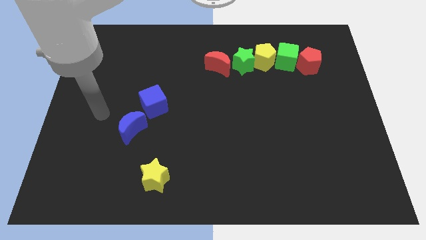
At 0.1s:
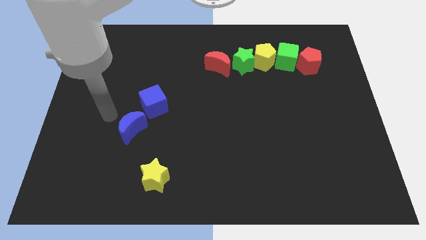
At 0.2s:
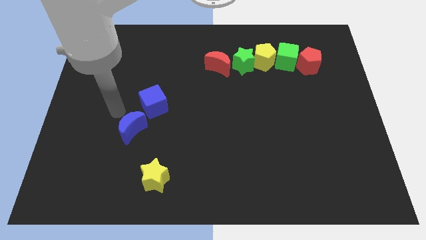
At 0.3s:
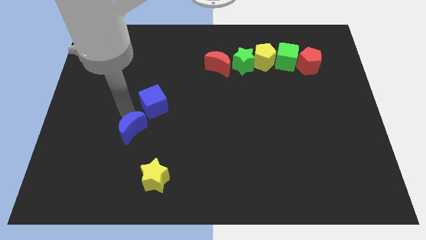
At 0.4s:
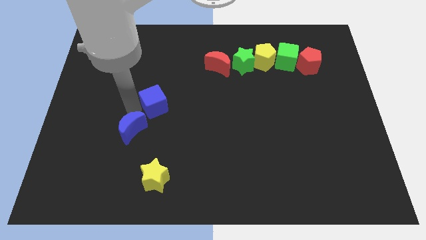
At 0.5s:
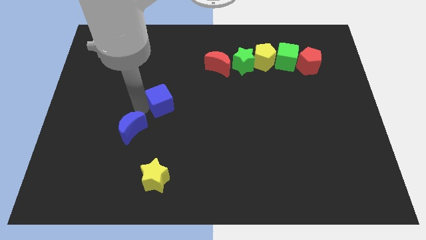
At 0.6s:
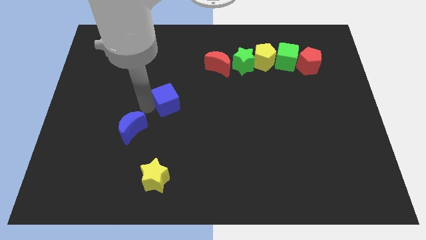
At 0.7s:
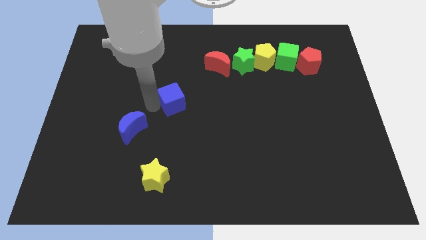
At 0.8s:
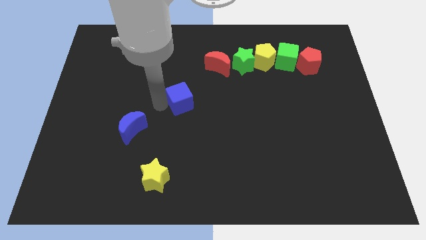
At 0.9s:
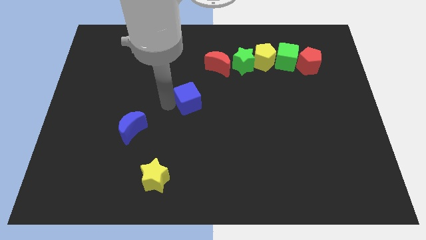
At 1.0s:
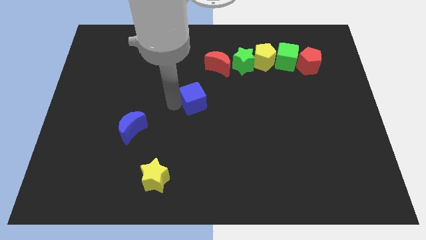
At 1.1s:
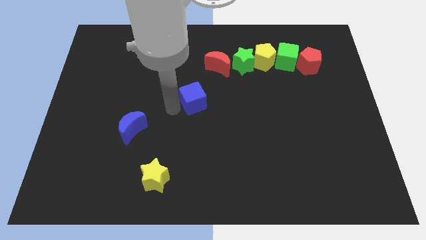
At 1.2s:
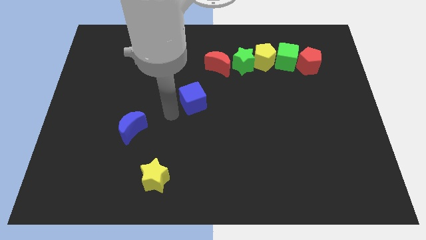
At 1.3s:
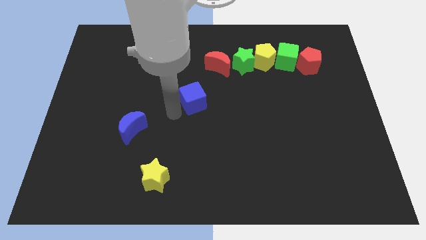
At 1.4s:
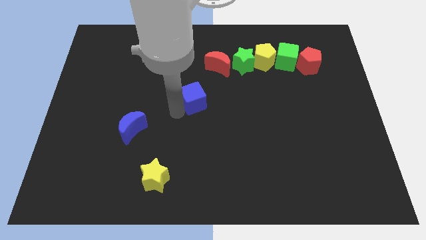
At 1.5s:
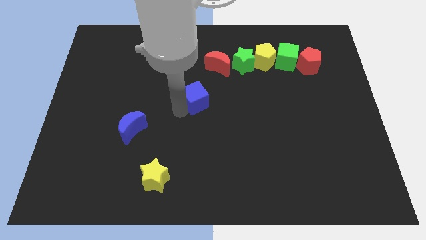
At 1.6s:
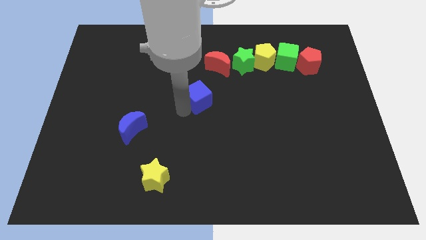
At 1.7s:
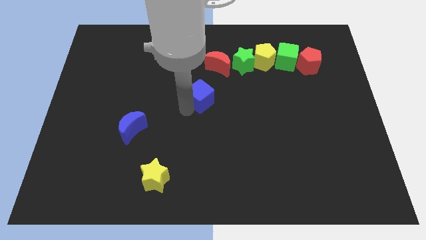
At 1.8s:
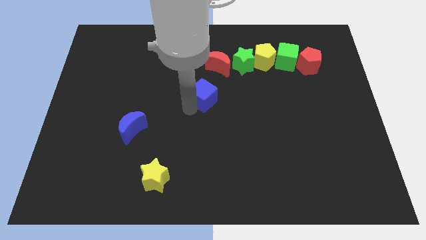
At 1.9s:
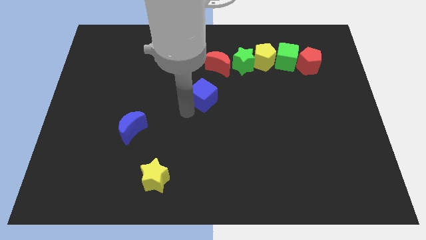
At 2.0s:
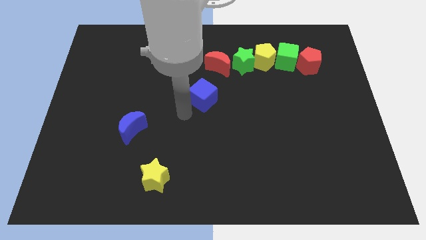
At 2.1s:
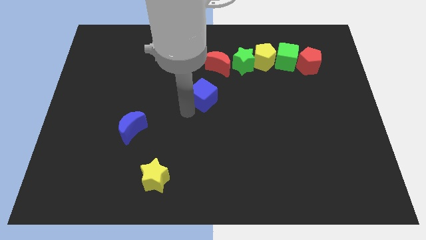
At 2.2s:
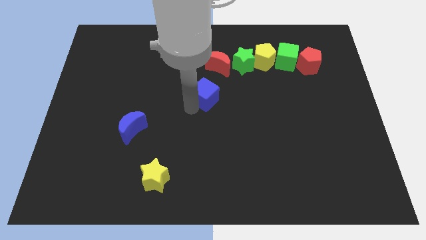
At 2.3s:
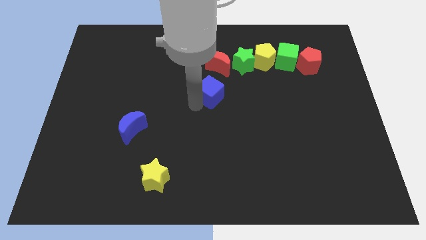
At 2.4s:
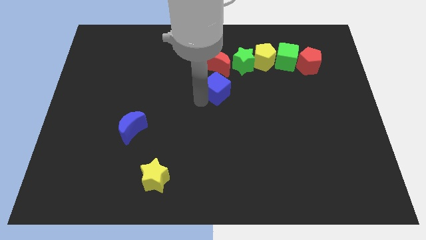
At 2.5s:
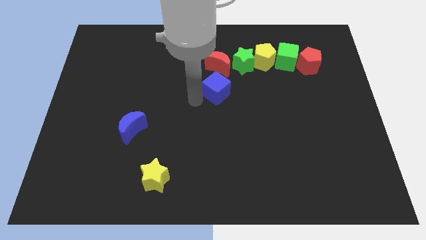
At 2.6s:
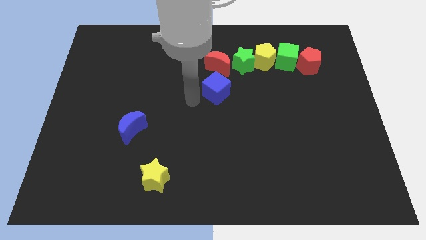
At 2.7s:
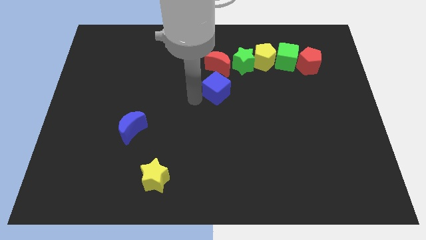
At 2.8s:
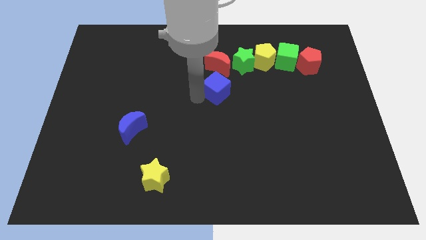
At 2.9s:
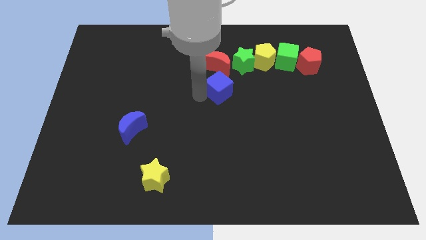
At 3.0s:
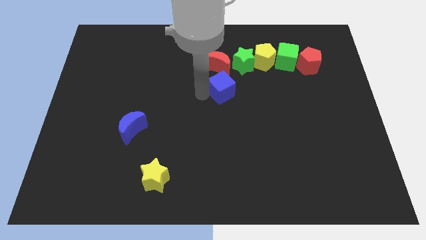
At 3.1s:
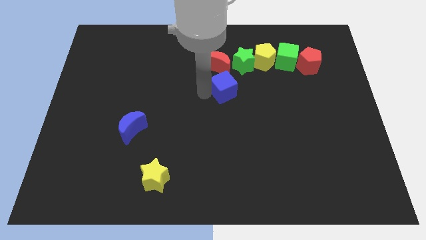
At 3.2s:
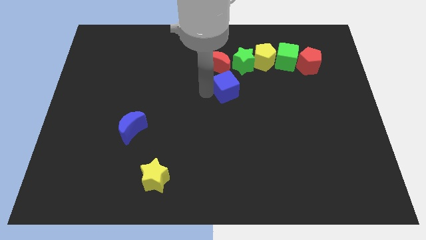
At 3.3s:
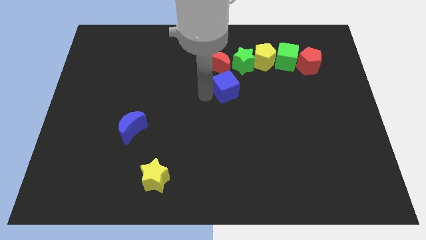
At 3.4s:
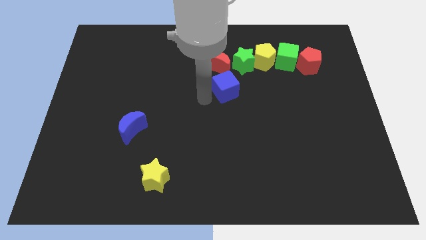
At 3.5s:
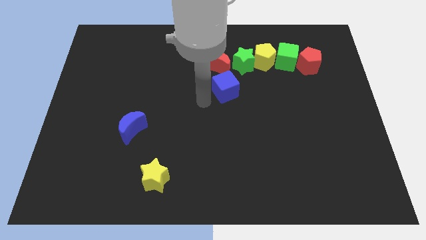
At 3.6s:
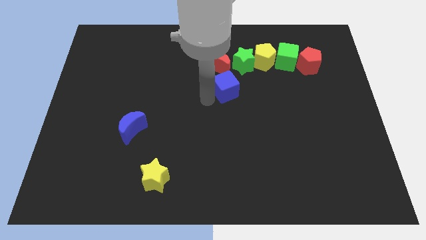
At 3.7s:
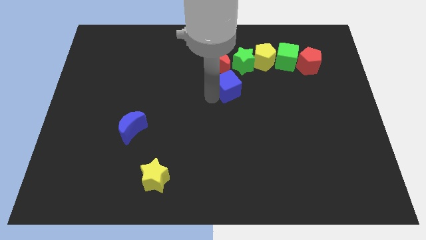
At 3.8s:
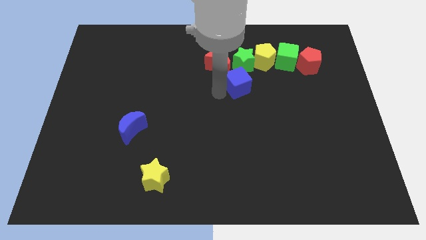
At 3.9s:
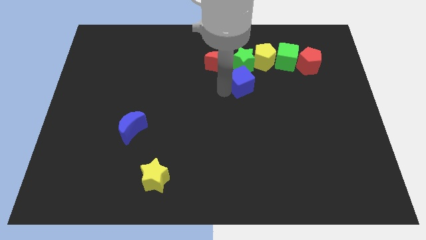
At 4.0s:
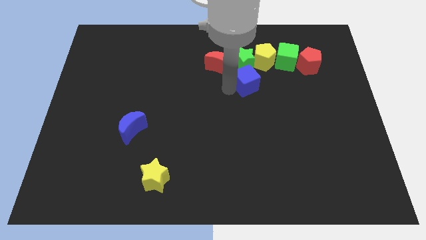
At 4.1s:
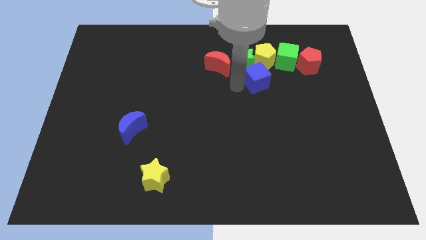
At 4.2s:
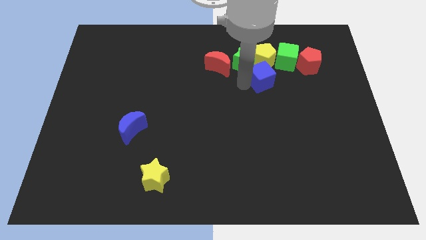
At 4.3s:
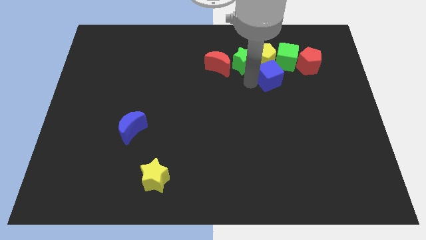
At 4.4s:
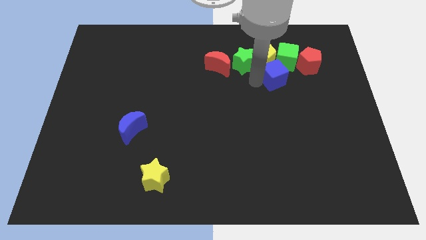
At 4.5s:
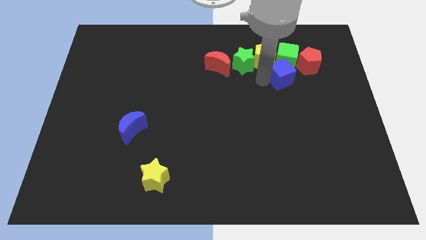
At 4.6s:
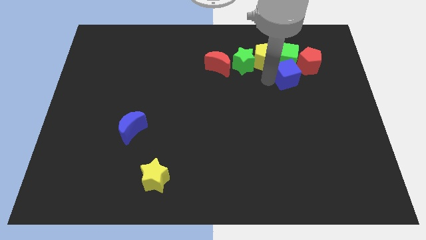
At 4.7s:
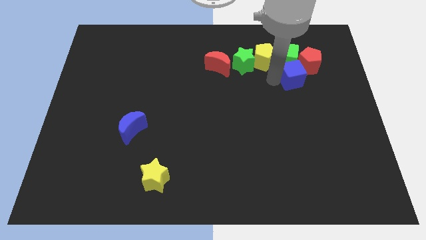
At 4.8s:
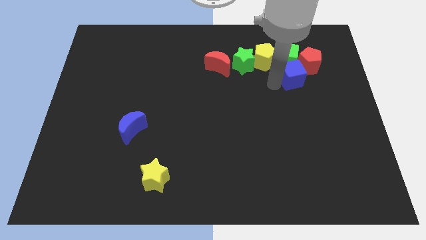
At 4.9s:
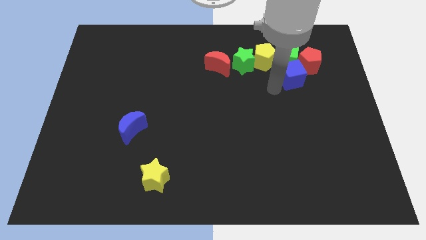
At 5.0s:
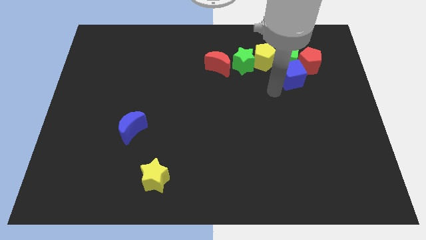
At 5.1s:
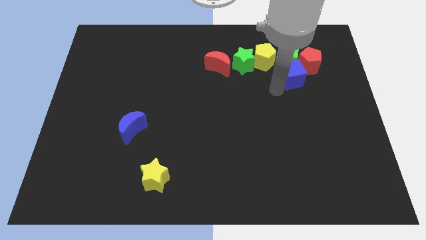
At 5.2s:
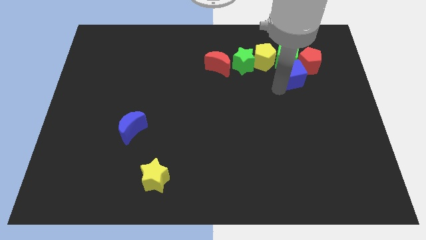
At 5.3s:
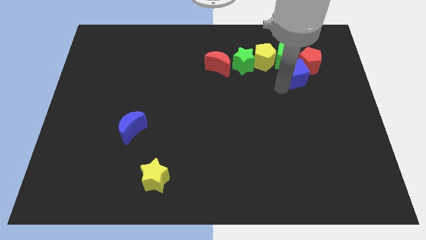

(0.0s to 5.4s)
move the blue cube next to the red pentagon

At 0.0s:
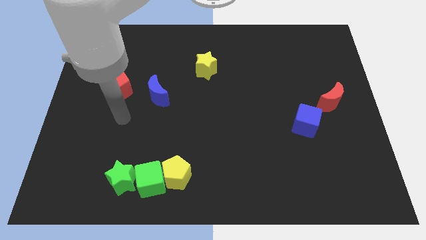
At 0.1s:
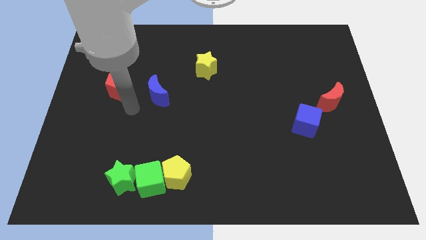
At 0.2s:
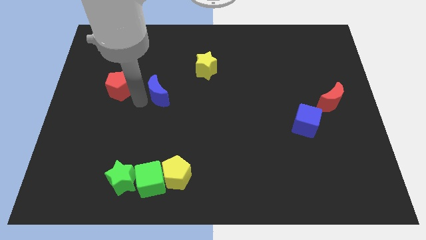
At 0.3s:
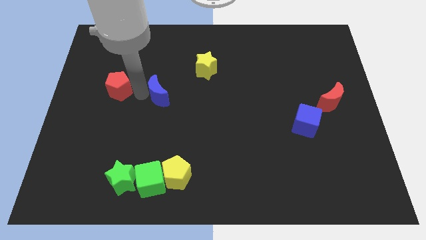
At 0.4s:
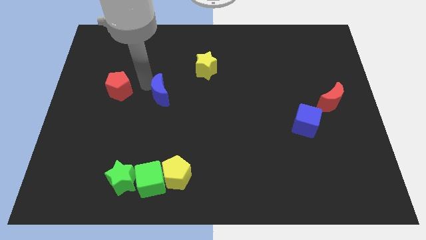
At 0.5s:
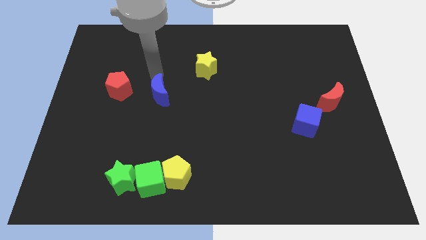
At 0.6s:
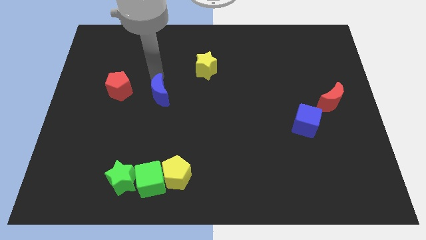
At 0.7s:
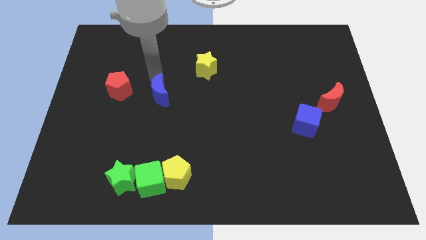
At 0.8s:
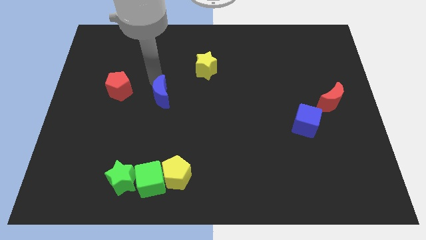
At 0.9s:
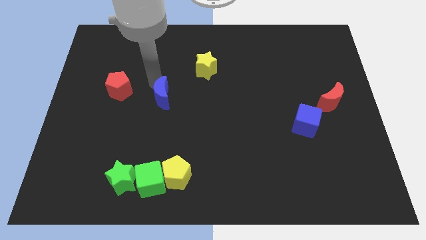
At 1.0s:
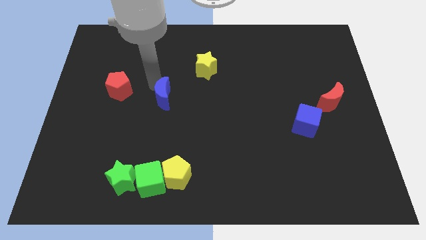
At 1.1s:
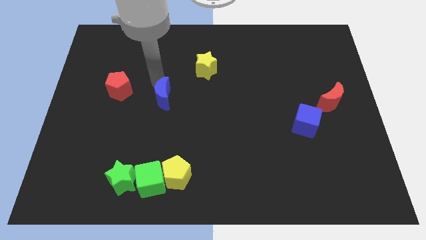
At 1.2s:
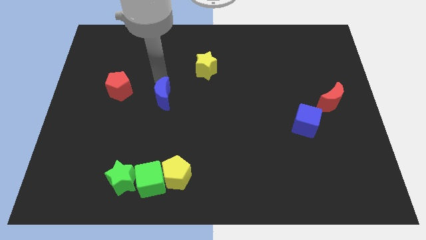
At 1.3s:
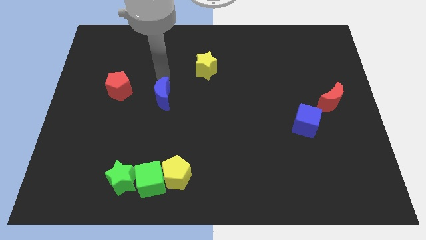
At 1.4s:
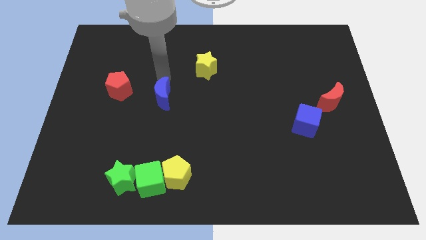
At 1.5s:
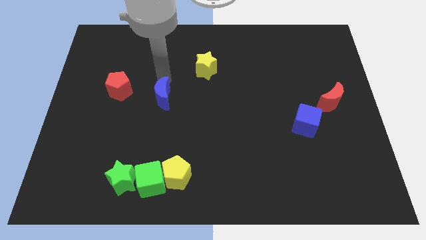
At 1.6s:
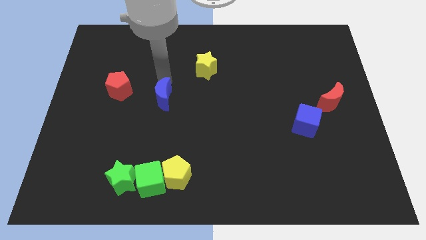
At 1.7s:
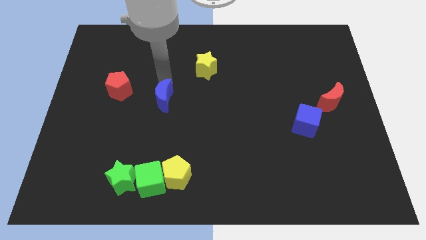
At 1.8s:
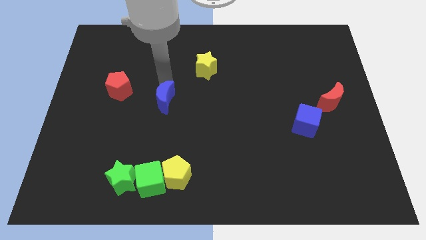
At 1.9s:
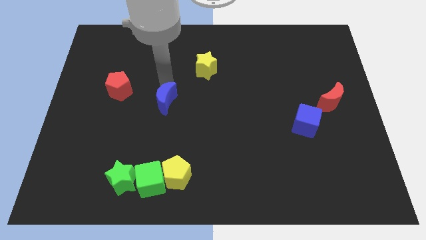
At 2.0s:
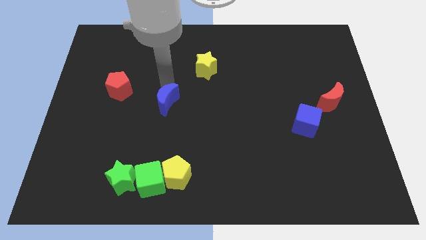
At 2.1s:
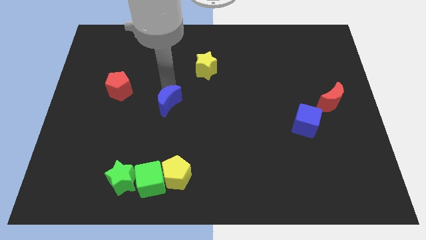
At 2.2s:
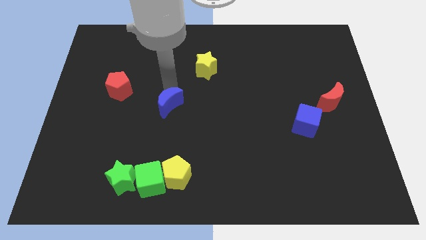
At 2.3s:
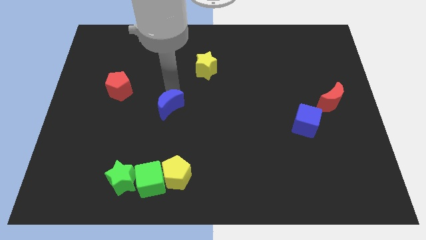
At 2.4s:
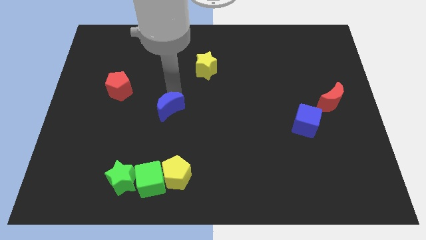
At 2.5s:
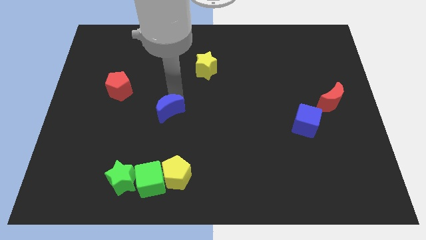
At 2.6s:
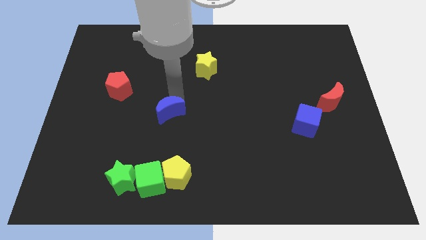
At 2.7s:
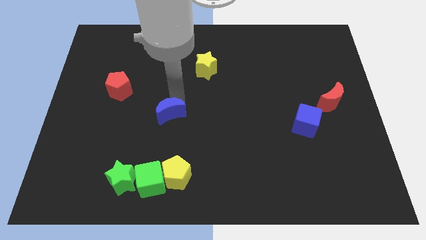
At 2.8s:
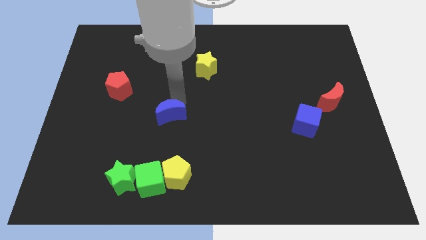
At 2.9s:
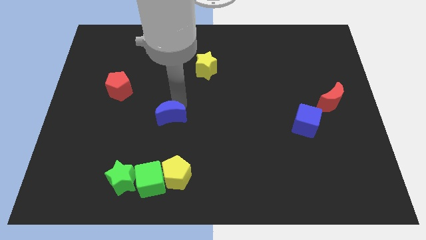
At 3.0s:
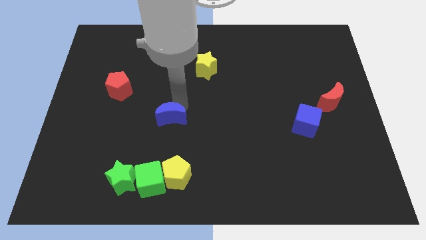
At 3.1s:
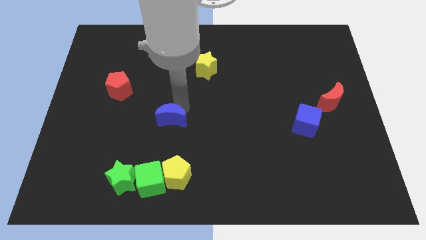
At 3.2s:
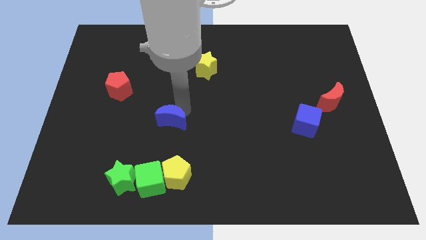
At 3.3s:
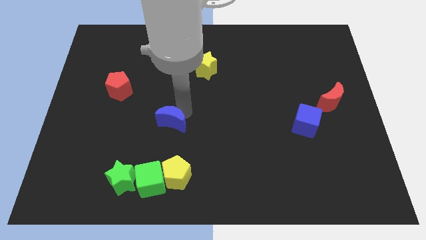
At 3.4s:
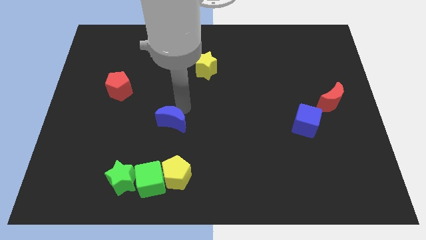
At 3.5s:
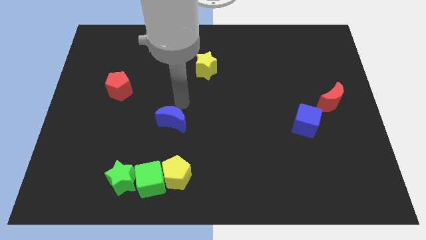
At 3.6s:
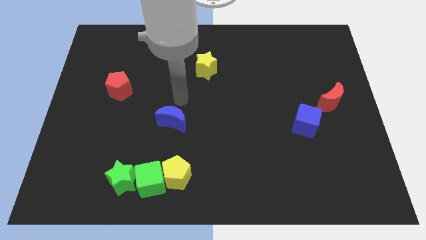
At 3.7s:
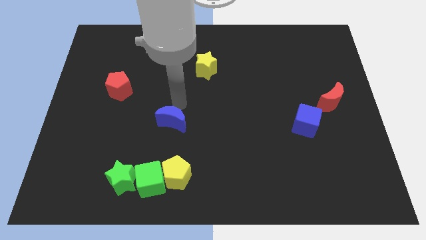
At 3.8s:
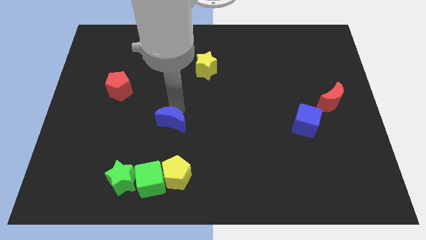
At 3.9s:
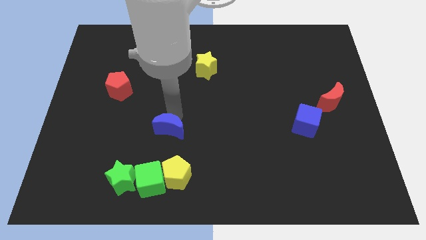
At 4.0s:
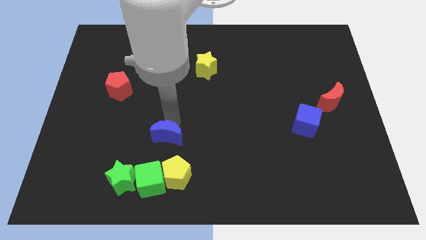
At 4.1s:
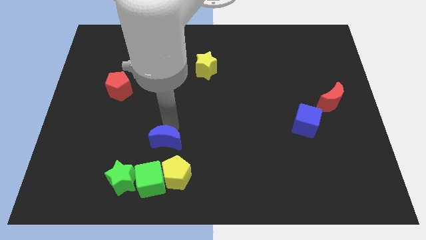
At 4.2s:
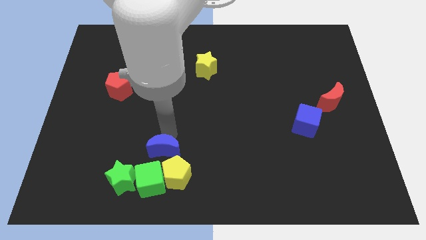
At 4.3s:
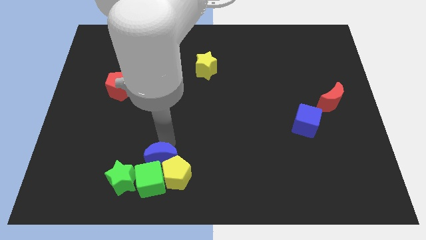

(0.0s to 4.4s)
put the blue moon towards the green cube
